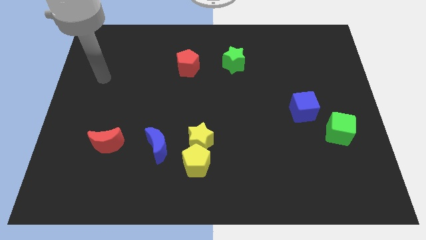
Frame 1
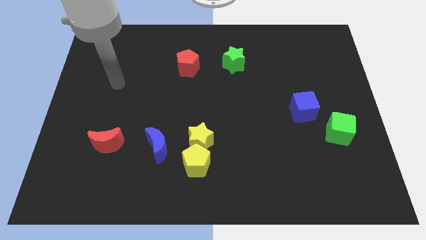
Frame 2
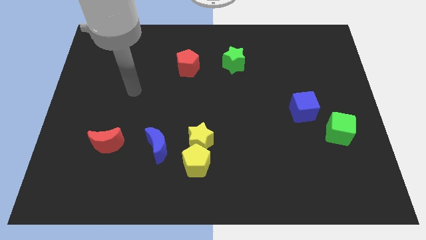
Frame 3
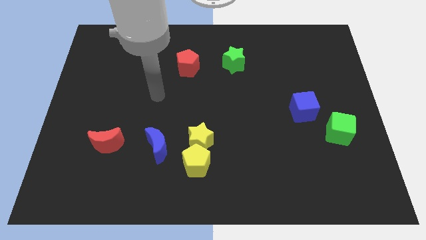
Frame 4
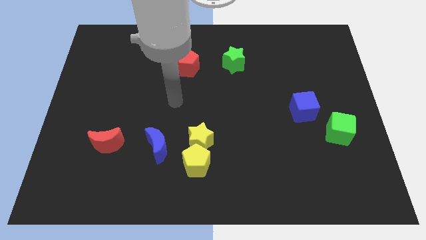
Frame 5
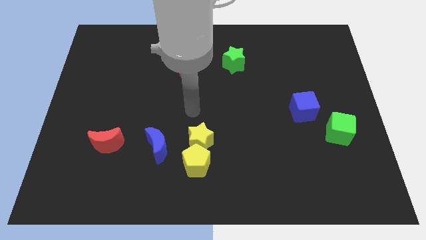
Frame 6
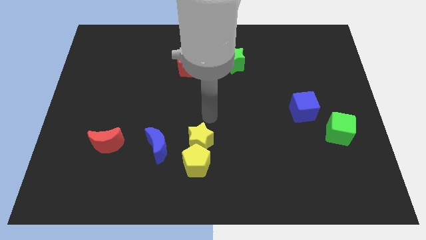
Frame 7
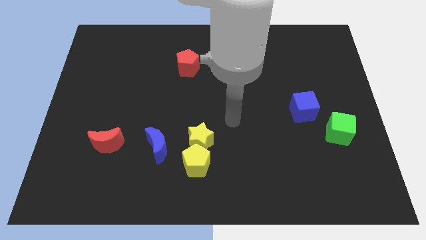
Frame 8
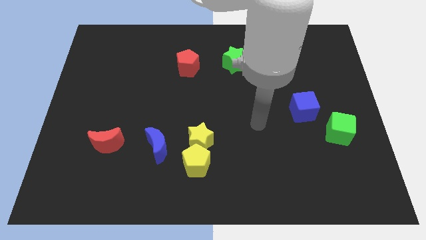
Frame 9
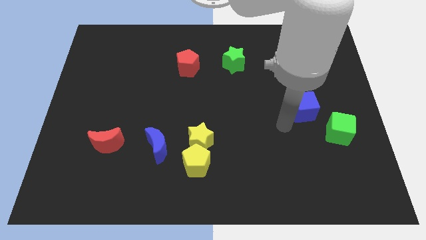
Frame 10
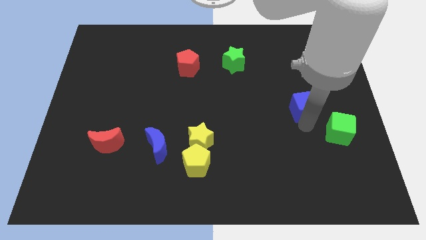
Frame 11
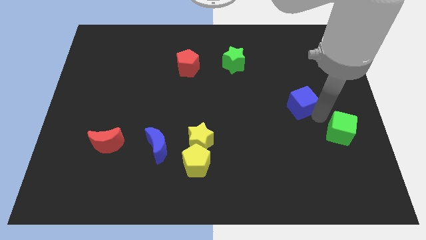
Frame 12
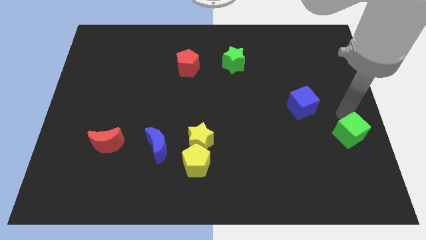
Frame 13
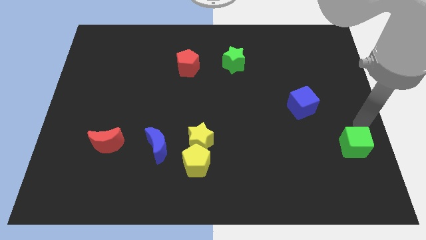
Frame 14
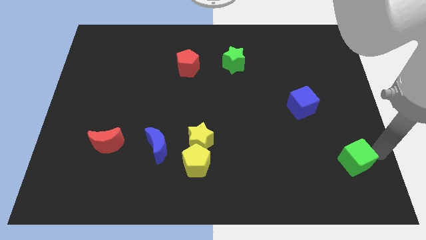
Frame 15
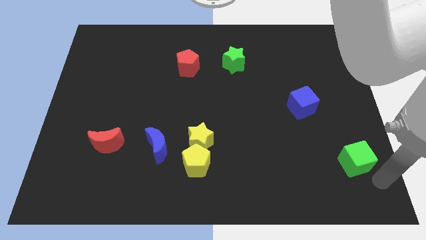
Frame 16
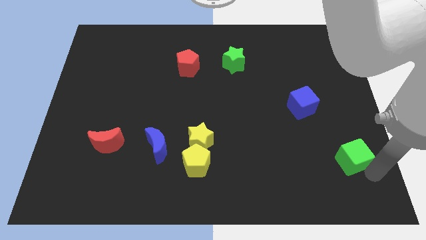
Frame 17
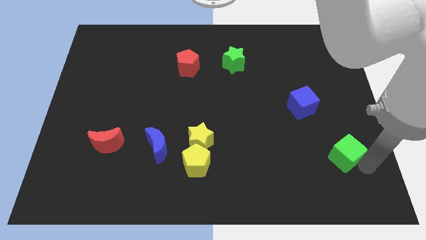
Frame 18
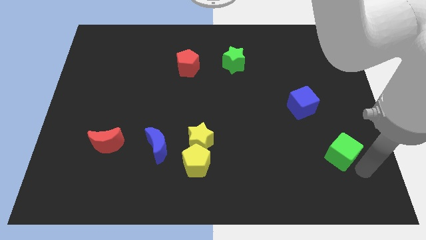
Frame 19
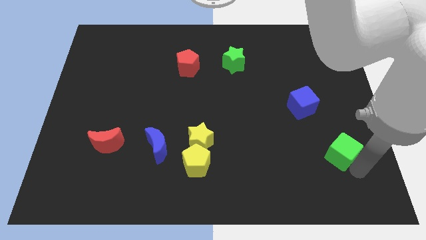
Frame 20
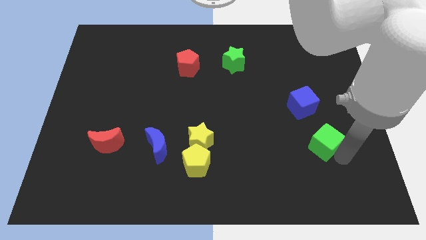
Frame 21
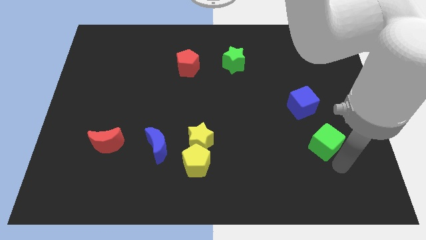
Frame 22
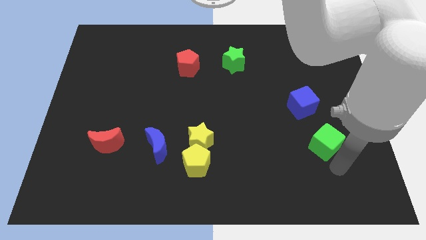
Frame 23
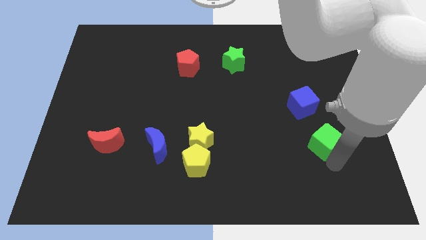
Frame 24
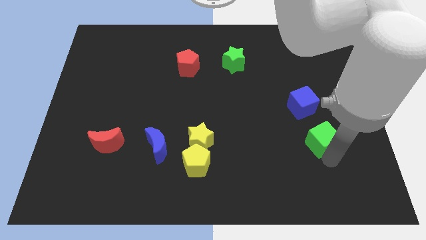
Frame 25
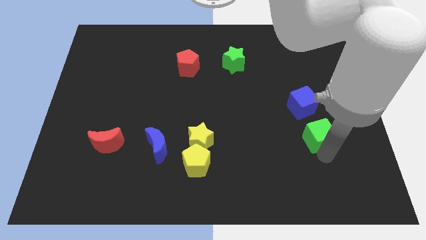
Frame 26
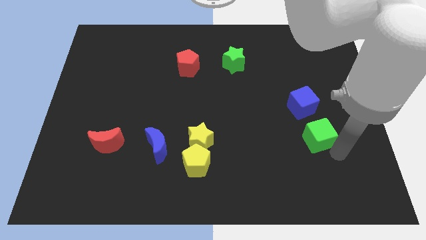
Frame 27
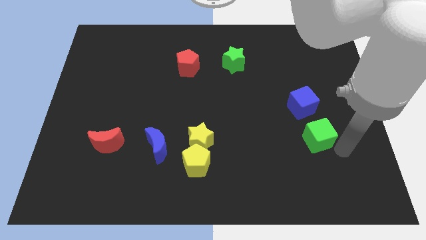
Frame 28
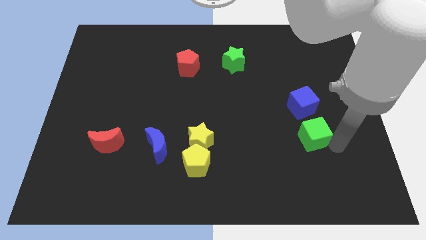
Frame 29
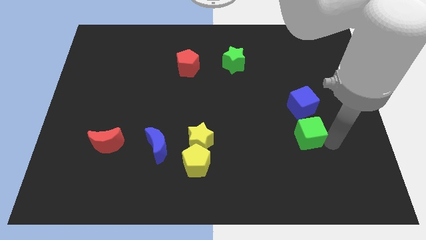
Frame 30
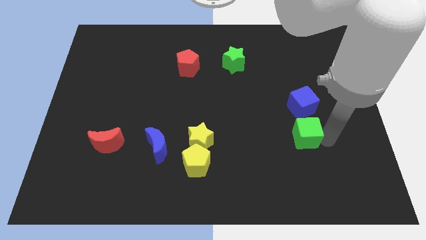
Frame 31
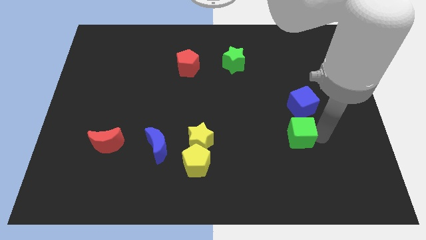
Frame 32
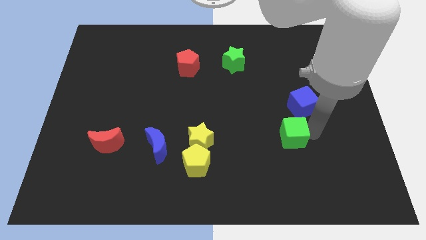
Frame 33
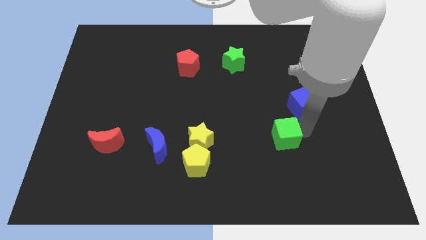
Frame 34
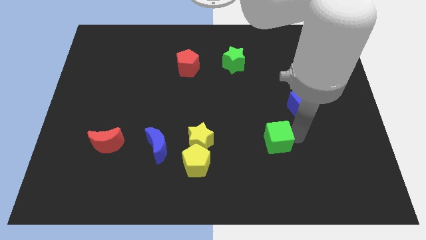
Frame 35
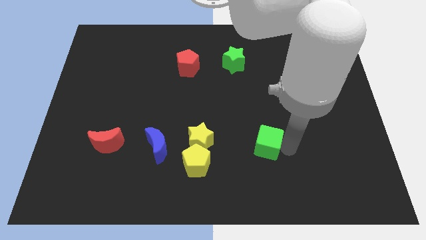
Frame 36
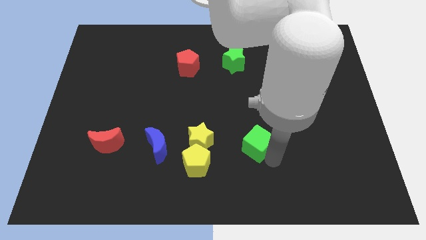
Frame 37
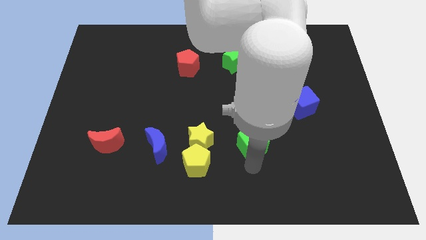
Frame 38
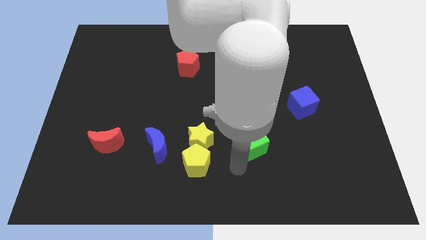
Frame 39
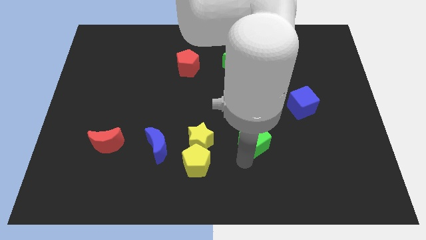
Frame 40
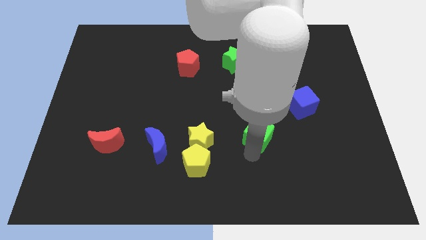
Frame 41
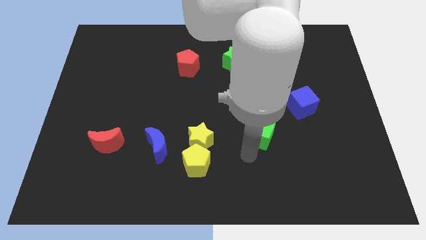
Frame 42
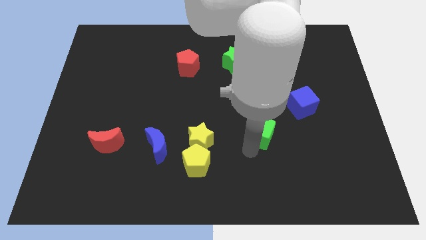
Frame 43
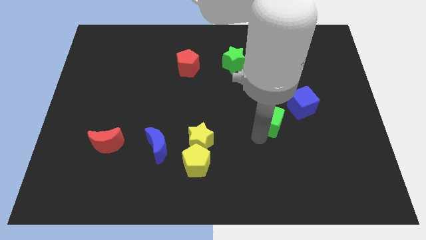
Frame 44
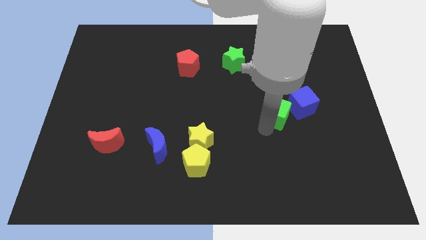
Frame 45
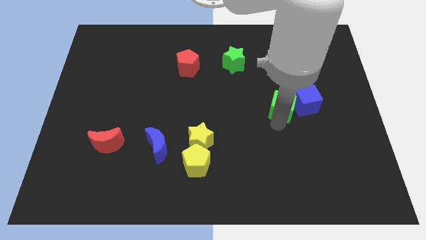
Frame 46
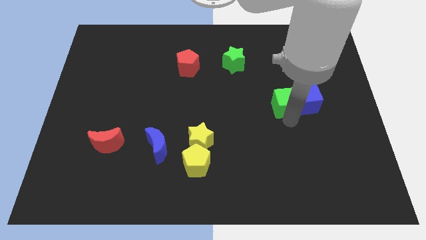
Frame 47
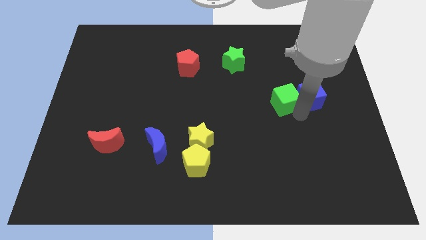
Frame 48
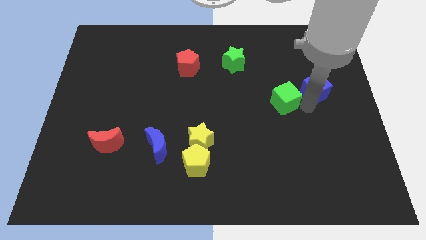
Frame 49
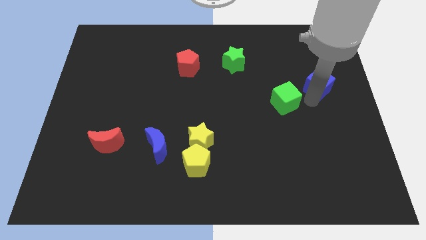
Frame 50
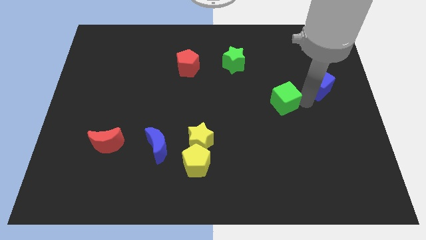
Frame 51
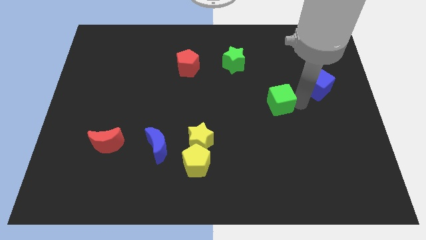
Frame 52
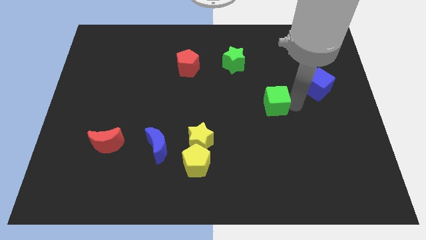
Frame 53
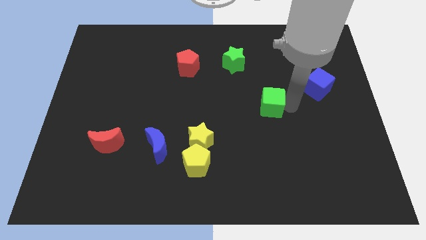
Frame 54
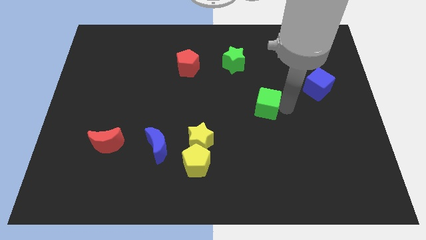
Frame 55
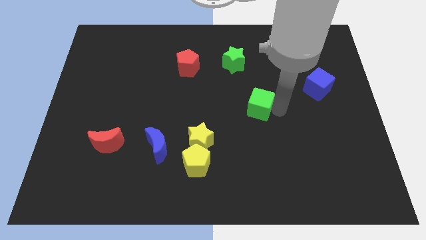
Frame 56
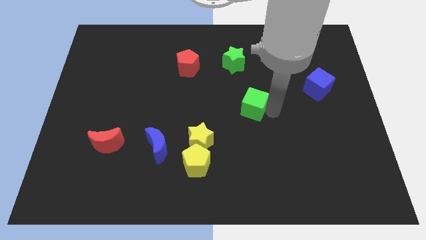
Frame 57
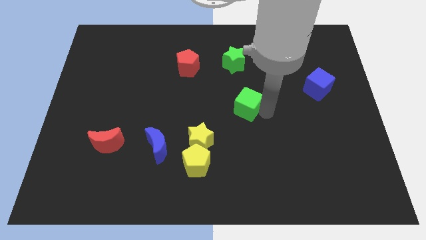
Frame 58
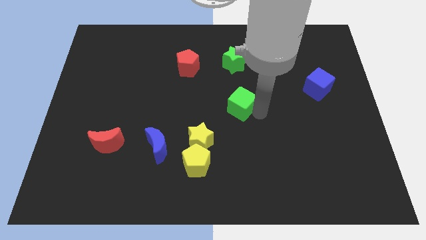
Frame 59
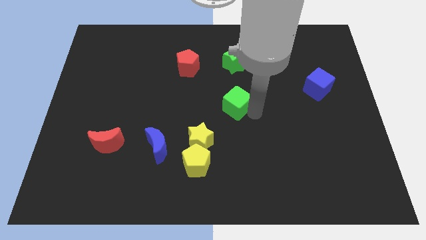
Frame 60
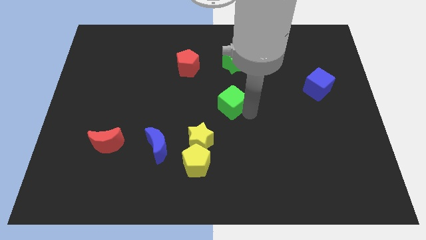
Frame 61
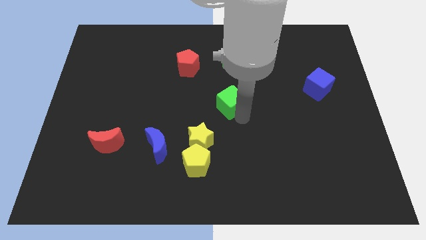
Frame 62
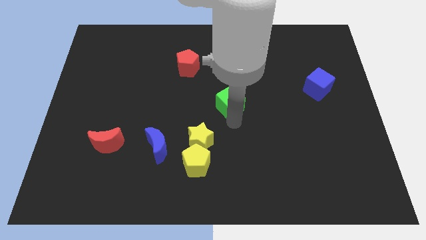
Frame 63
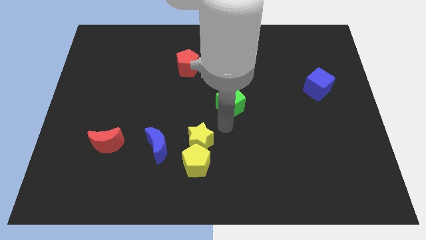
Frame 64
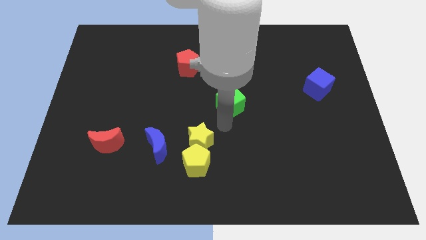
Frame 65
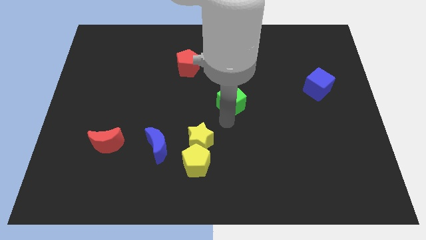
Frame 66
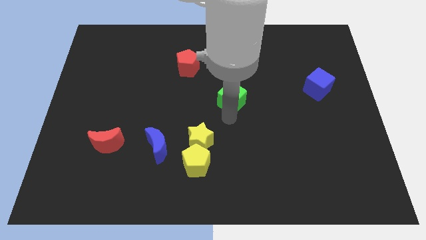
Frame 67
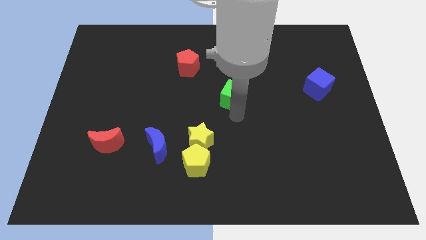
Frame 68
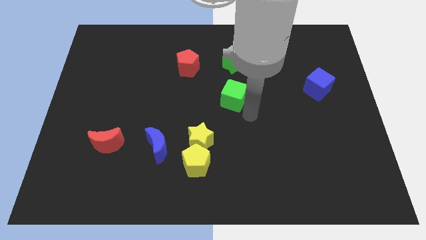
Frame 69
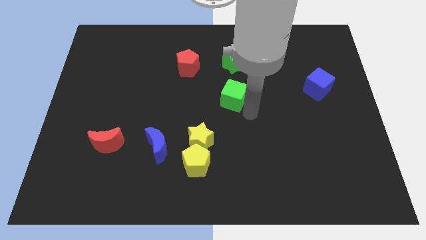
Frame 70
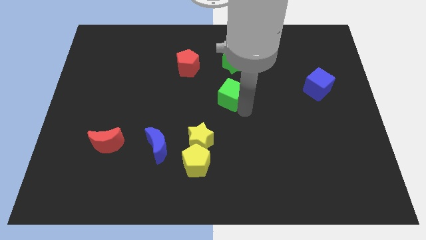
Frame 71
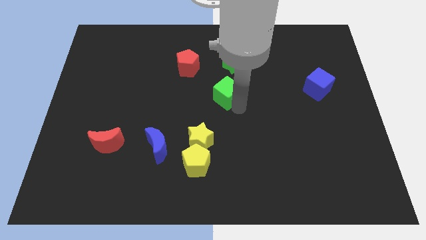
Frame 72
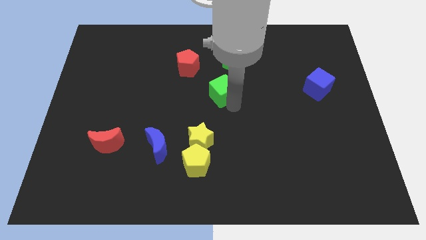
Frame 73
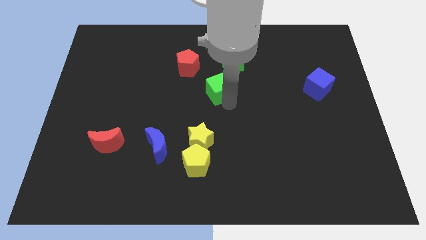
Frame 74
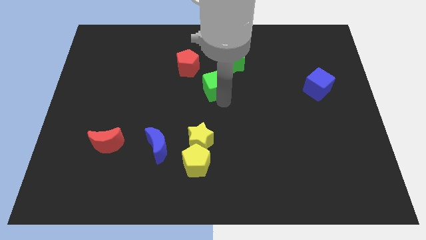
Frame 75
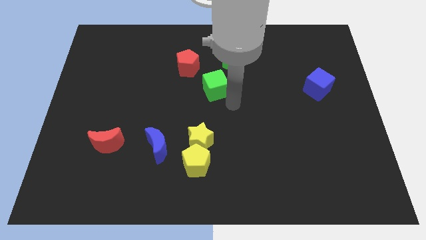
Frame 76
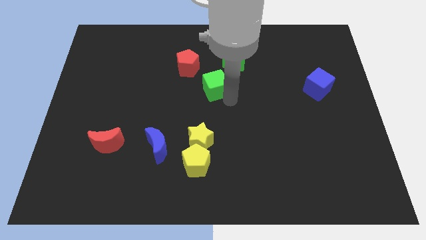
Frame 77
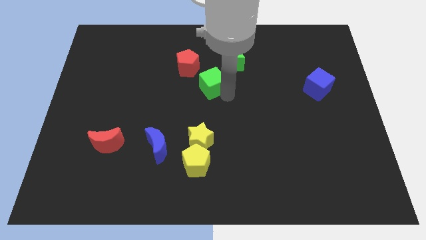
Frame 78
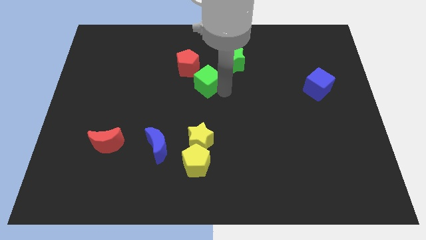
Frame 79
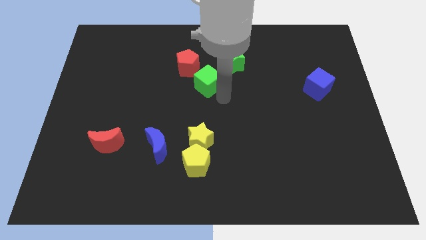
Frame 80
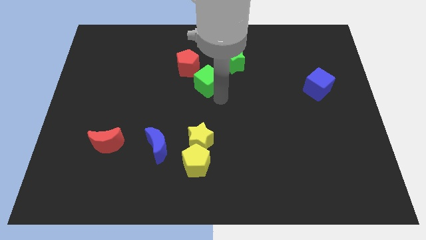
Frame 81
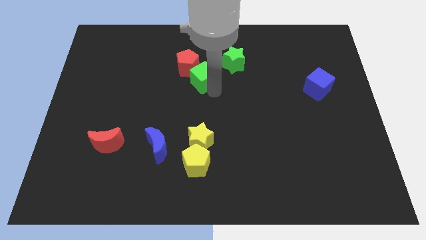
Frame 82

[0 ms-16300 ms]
move the green cube next to the red pentagon
